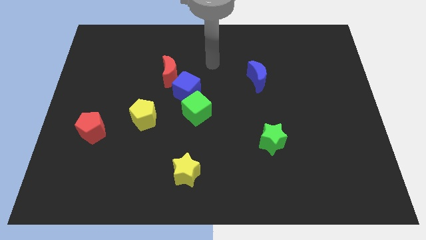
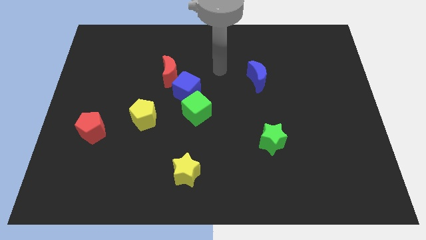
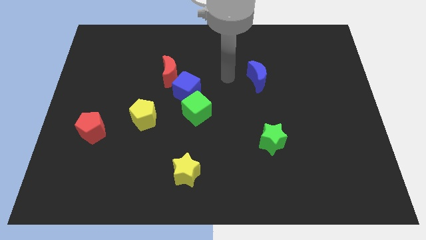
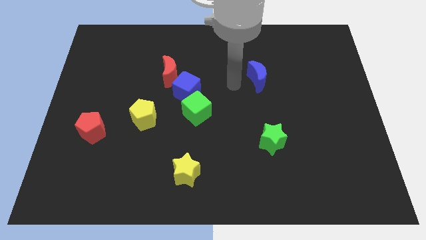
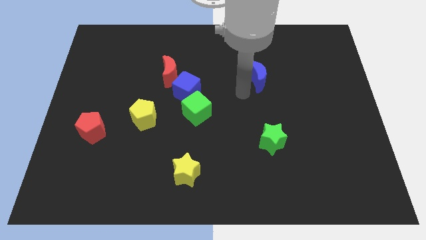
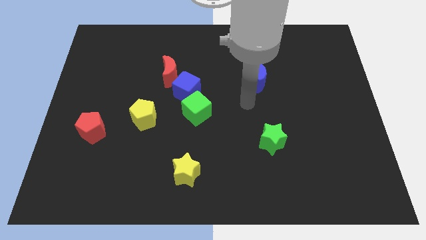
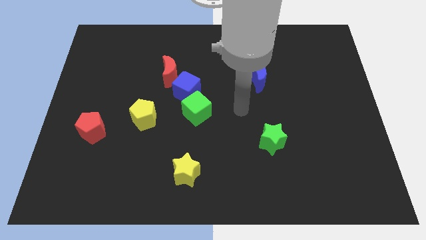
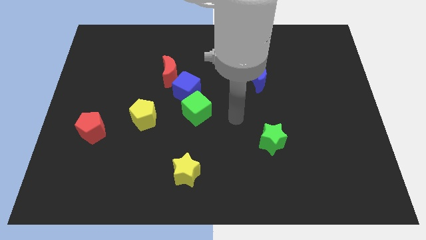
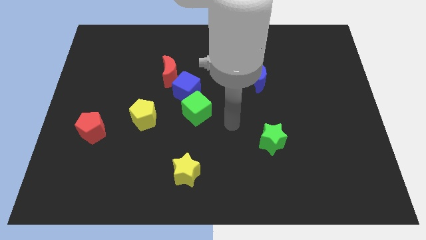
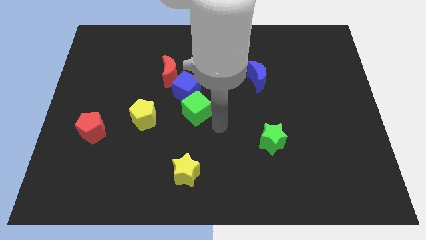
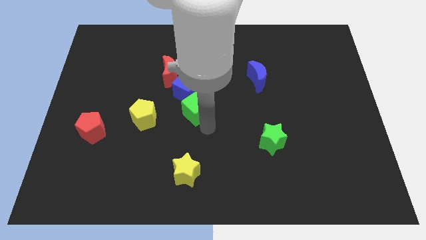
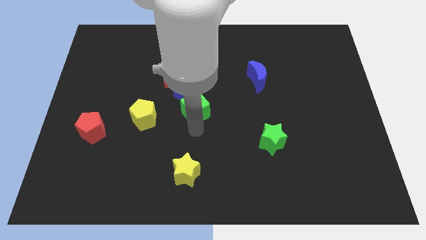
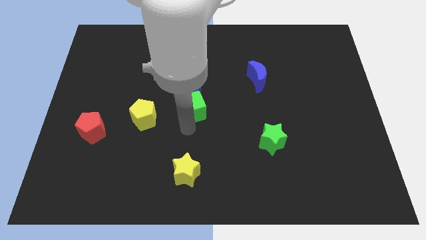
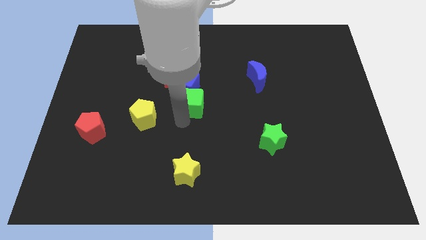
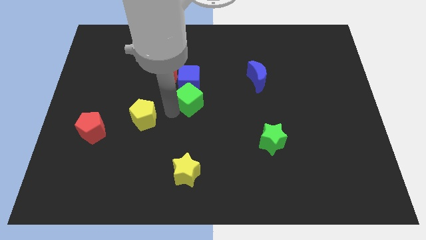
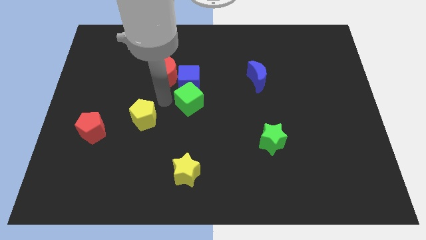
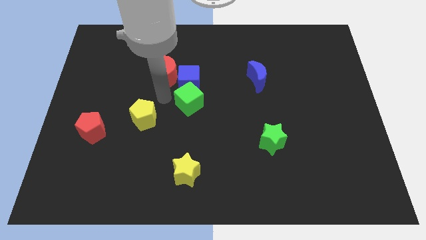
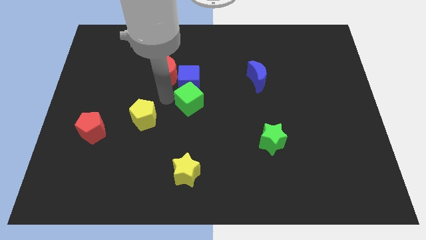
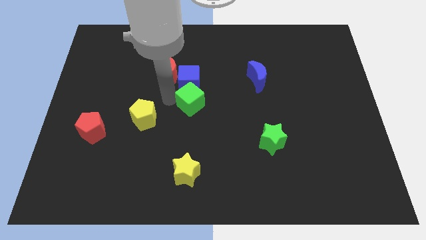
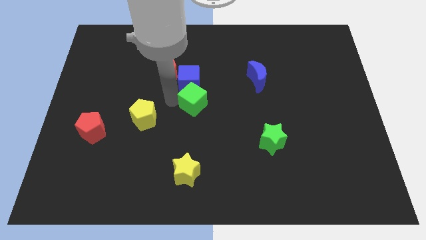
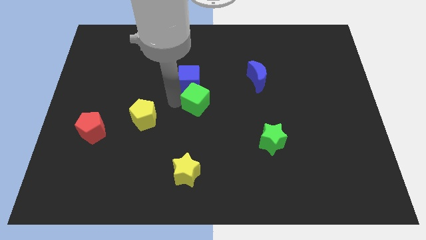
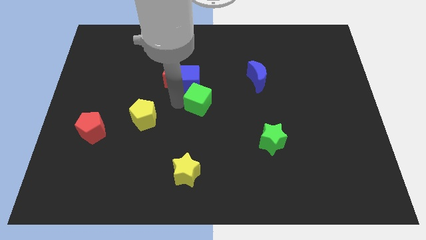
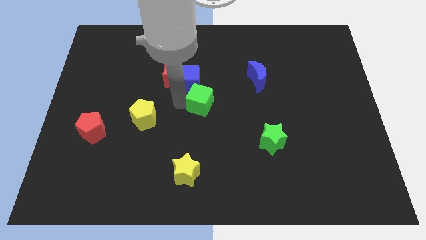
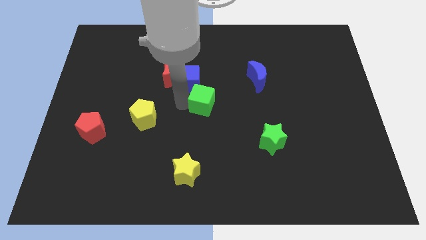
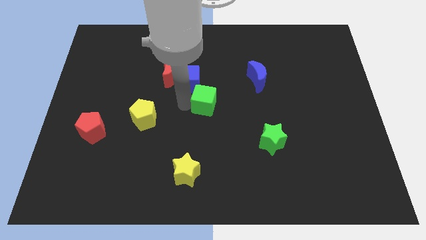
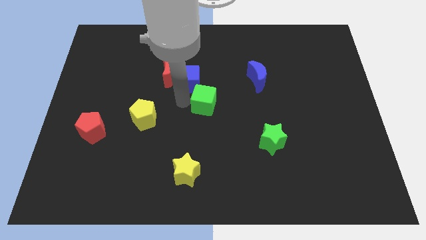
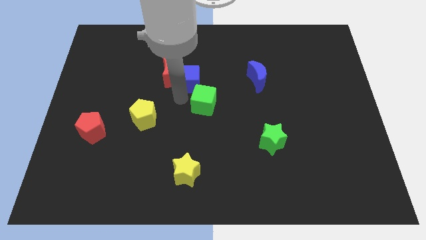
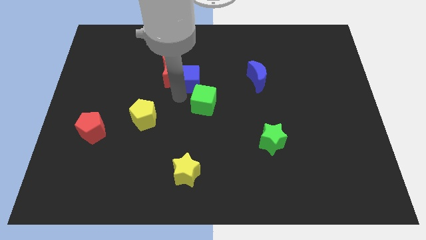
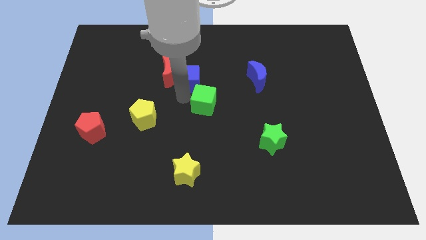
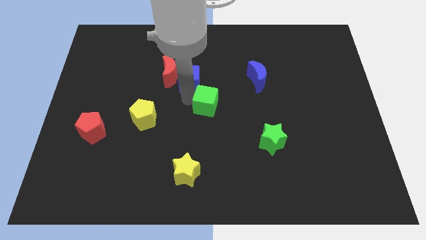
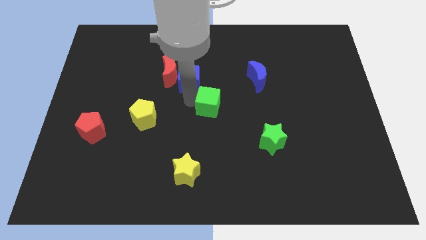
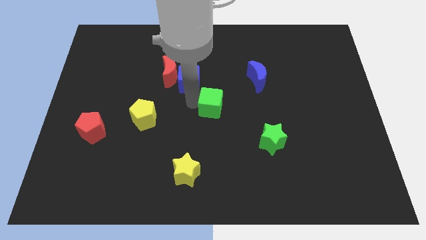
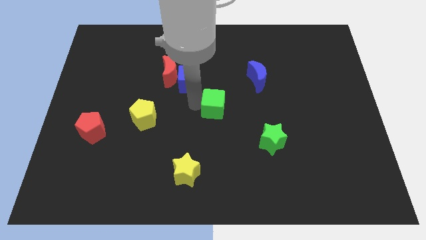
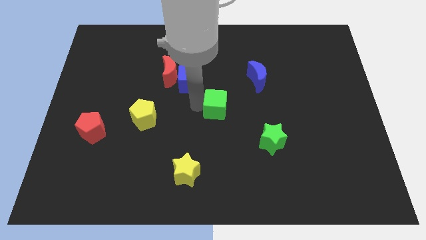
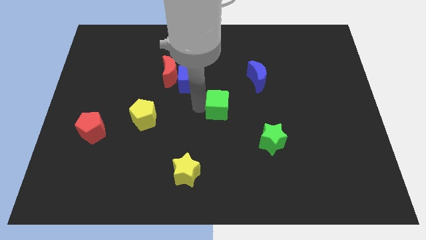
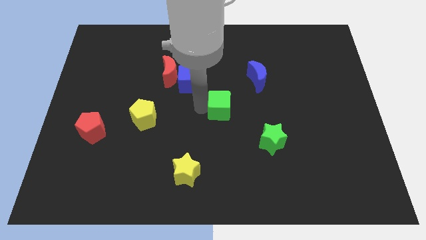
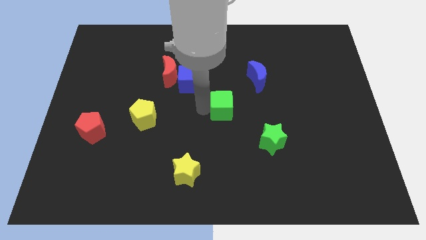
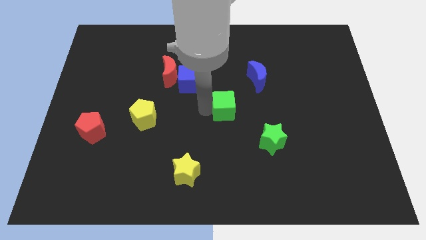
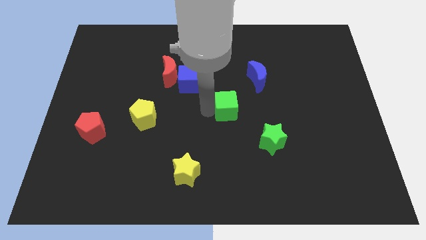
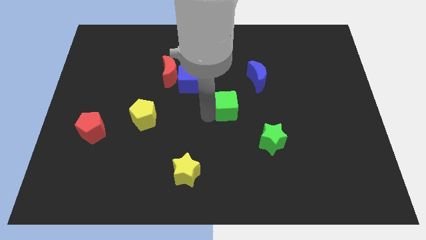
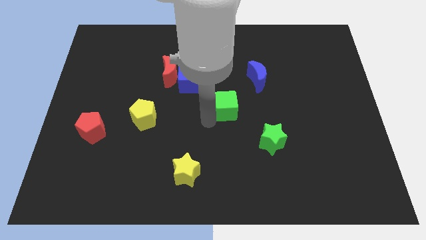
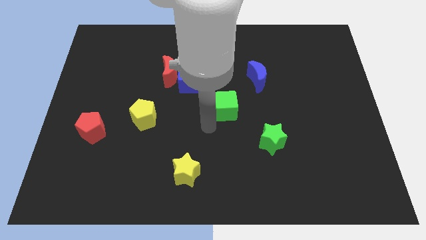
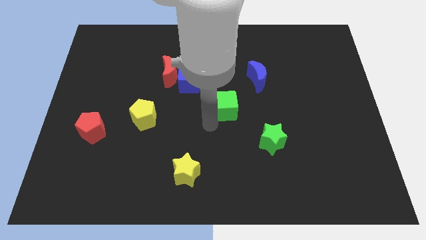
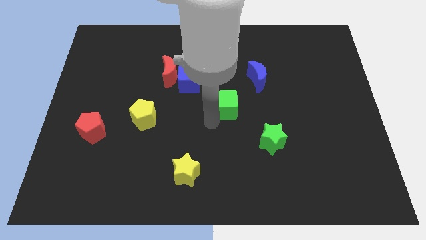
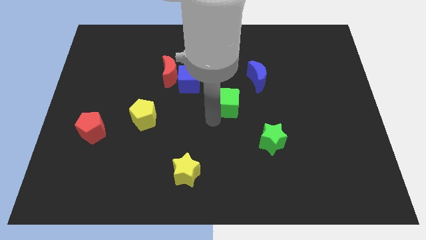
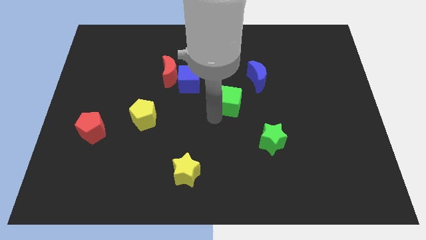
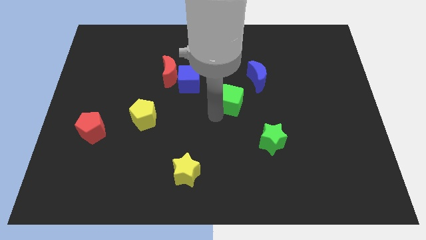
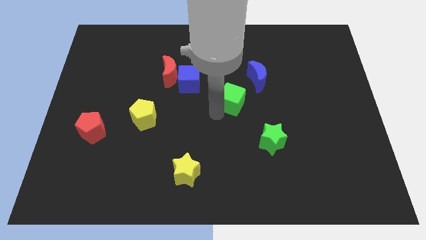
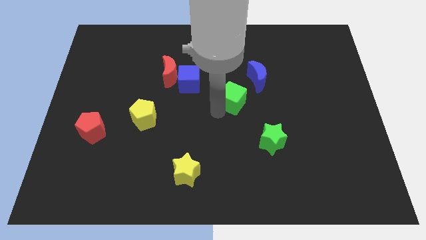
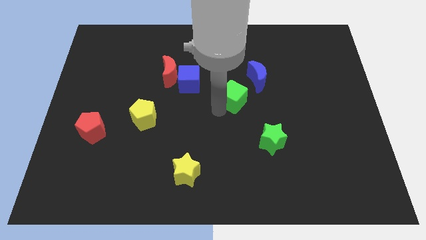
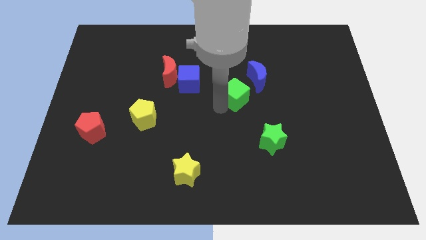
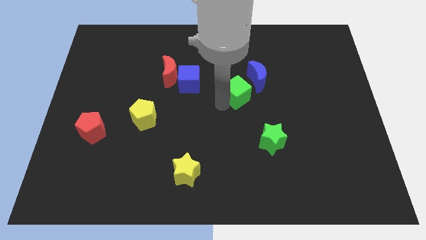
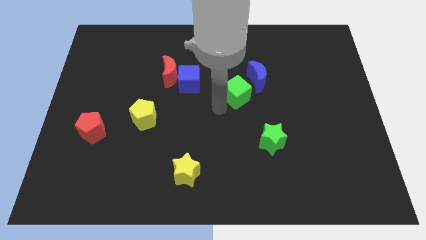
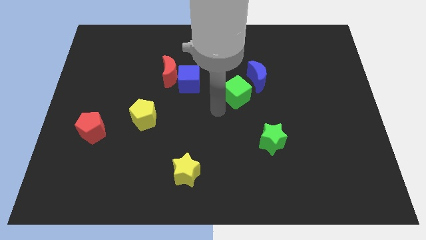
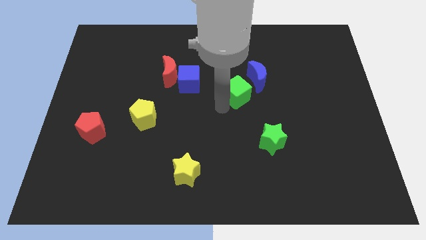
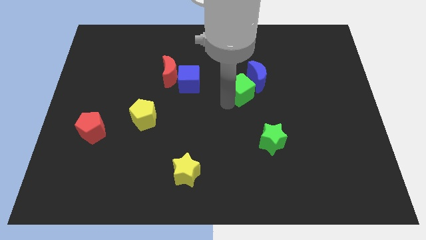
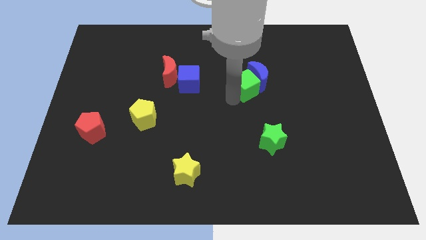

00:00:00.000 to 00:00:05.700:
push the green cube towards the blue moon

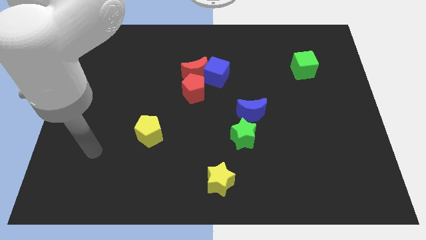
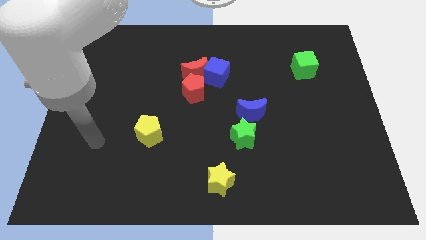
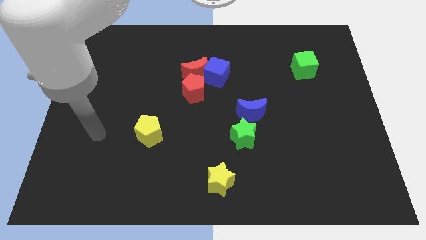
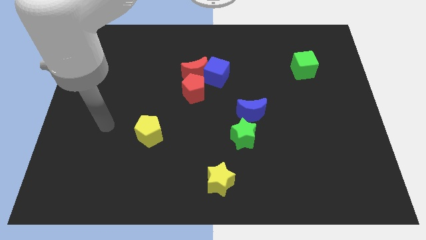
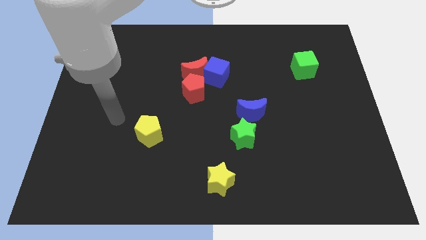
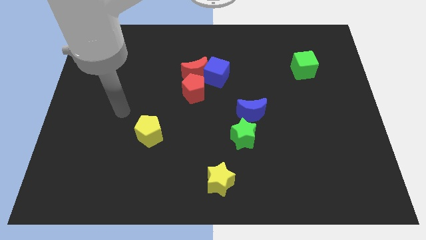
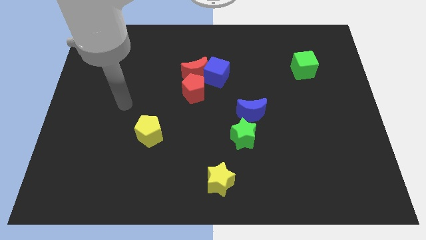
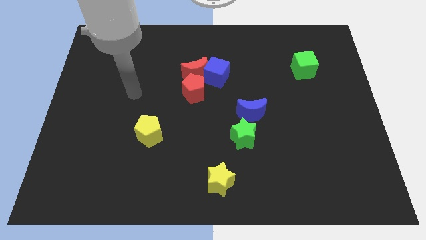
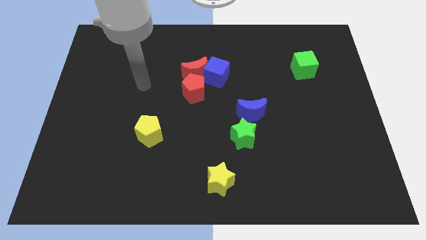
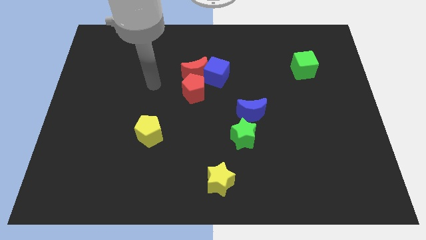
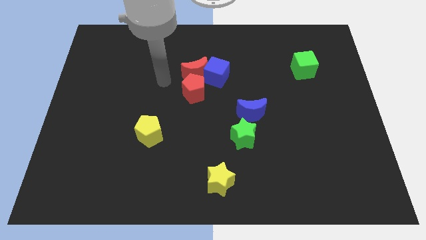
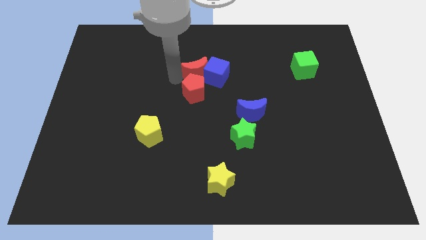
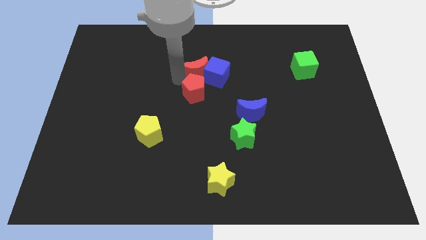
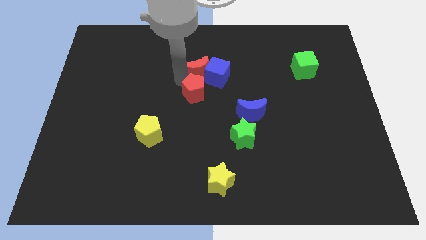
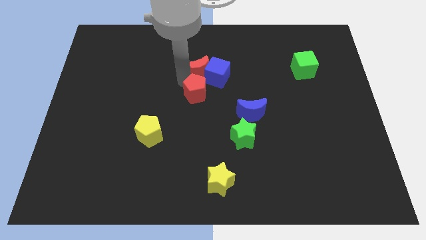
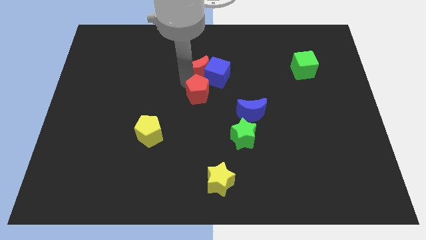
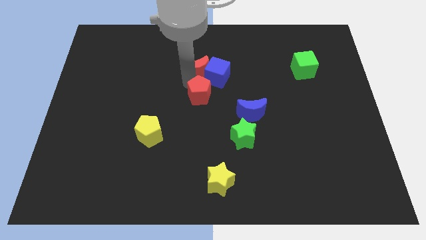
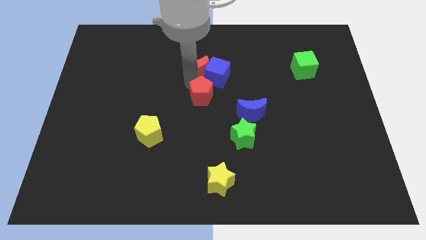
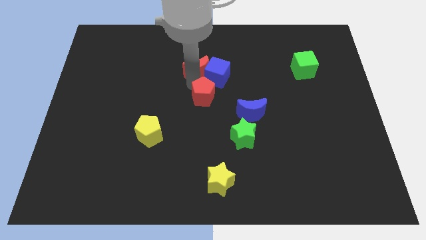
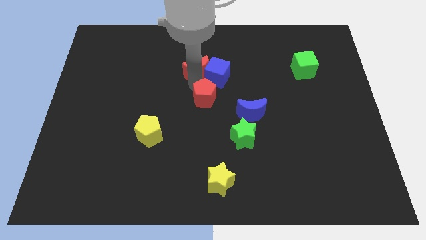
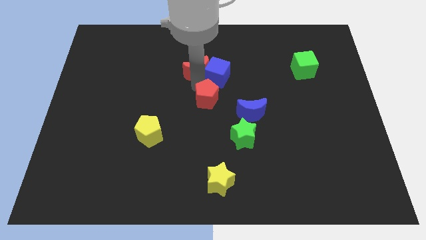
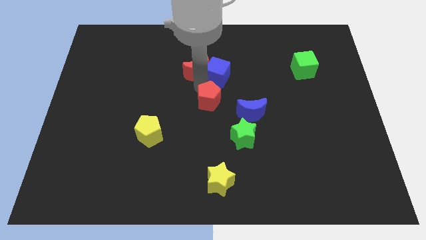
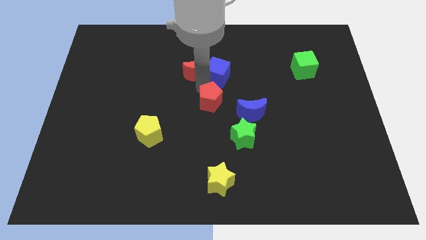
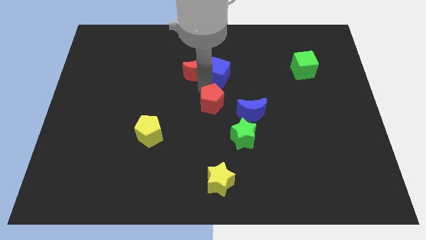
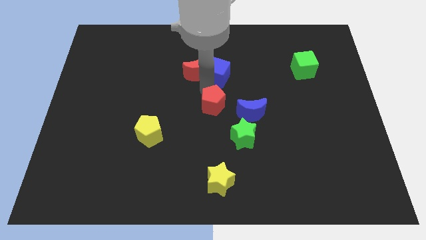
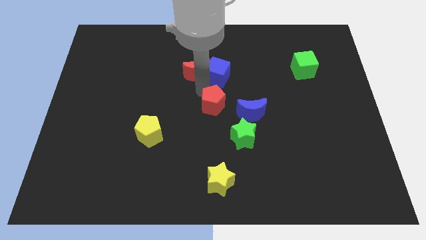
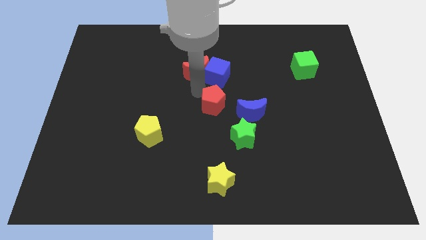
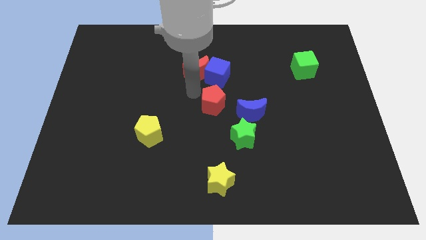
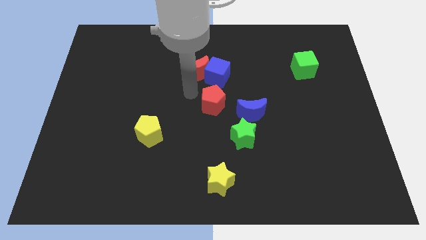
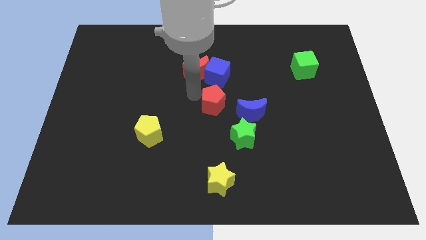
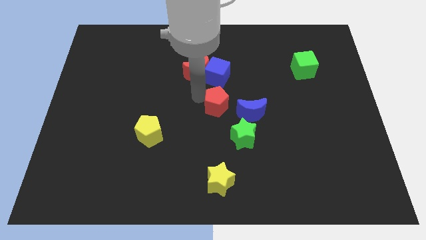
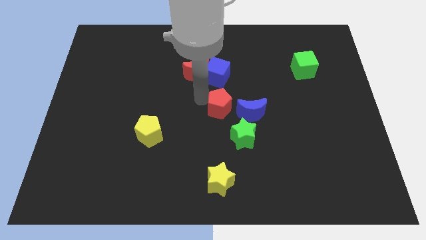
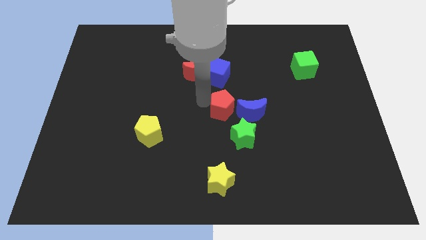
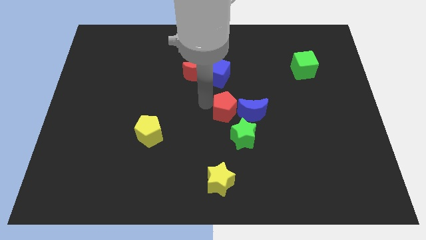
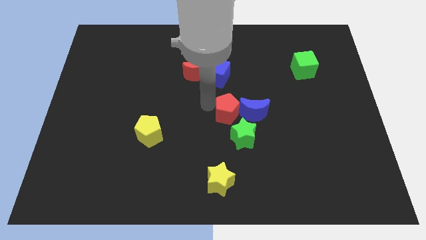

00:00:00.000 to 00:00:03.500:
push the red pentagon to the blue moon
